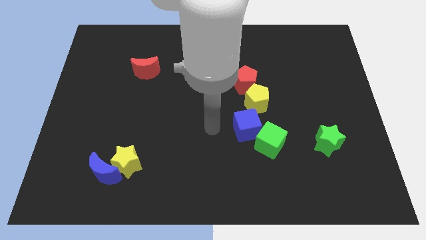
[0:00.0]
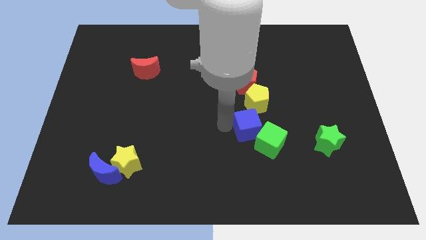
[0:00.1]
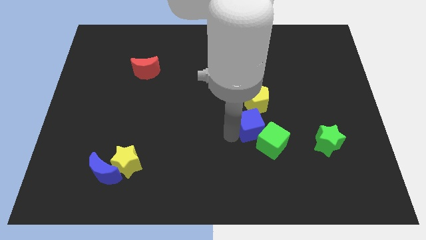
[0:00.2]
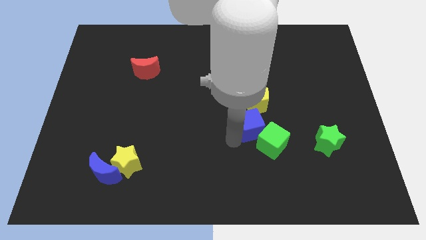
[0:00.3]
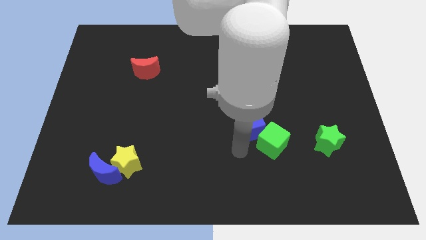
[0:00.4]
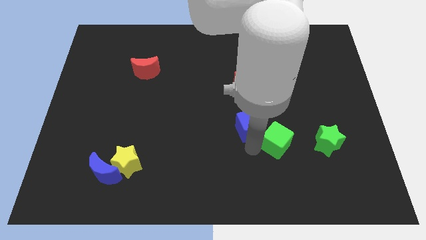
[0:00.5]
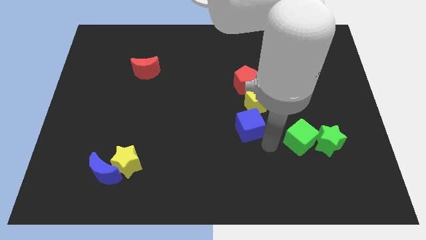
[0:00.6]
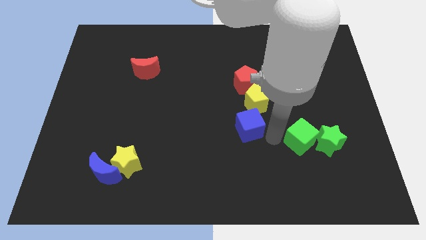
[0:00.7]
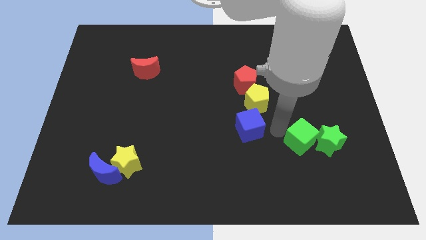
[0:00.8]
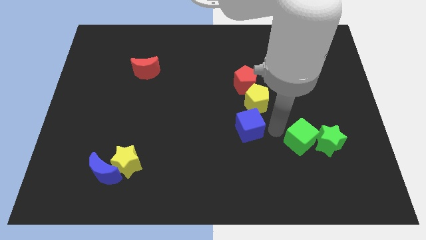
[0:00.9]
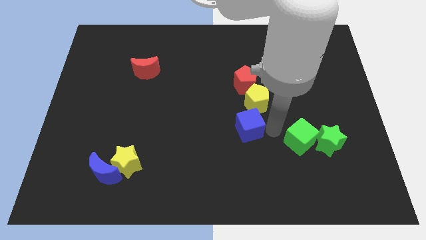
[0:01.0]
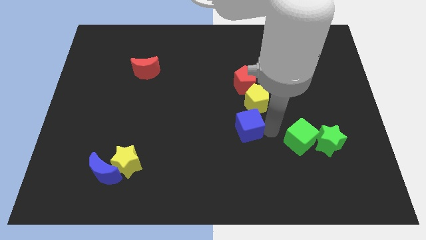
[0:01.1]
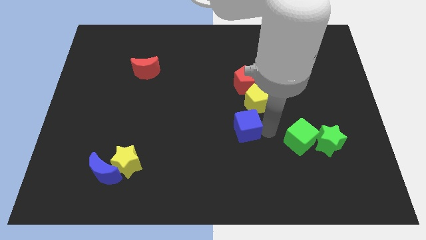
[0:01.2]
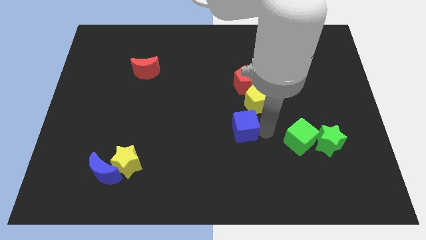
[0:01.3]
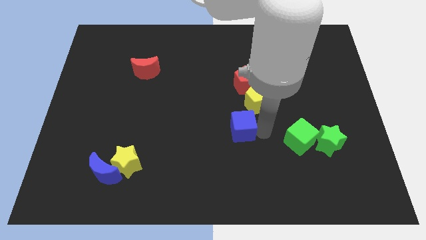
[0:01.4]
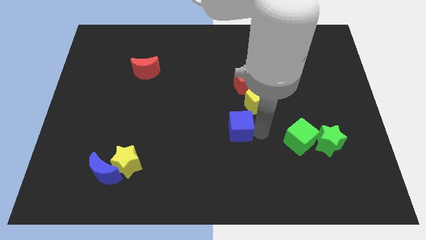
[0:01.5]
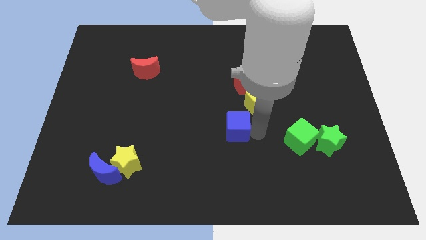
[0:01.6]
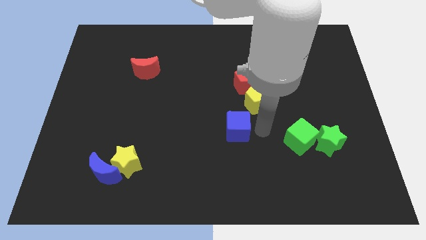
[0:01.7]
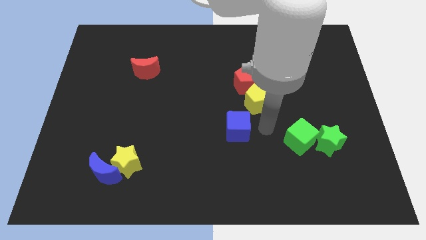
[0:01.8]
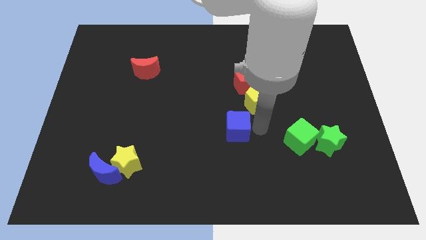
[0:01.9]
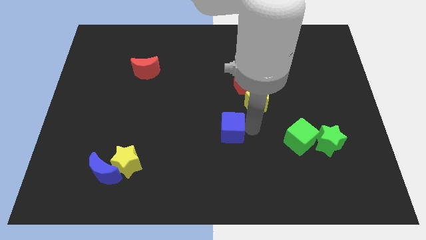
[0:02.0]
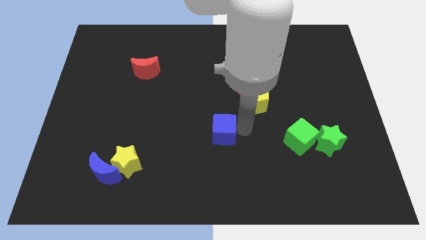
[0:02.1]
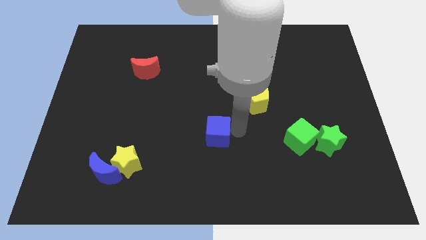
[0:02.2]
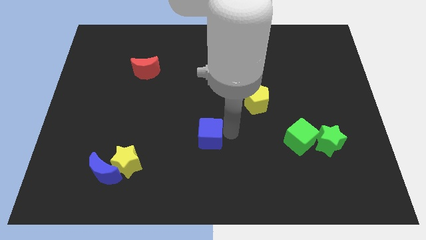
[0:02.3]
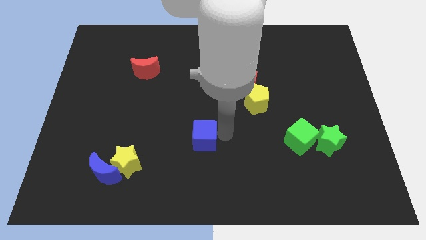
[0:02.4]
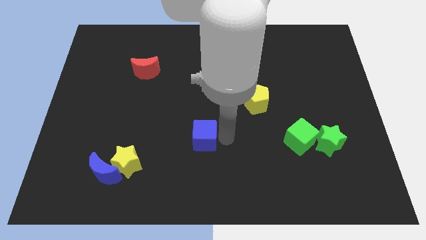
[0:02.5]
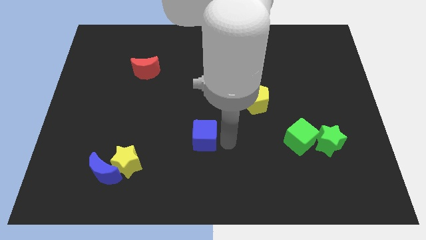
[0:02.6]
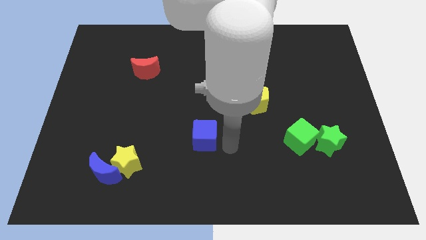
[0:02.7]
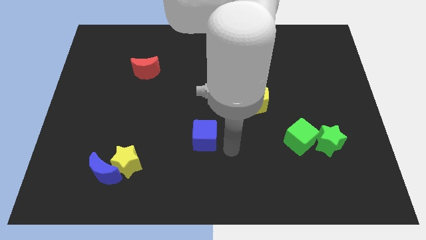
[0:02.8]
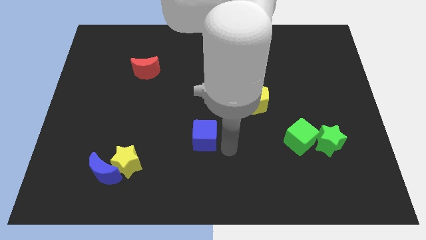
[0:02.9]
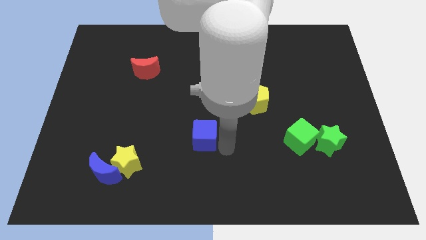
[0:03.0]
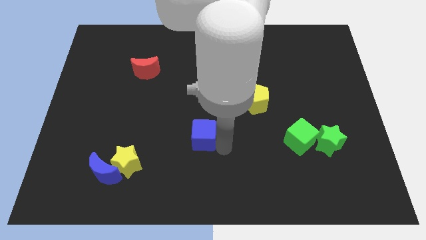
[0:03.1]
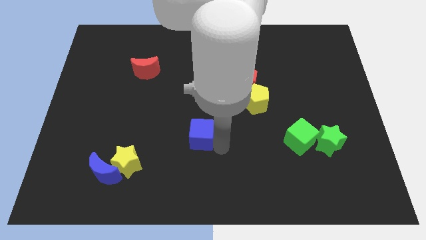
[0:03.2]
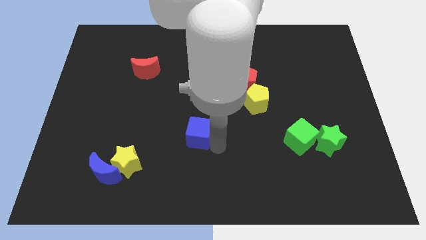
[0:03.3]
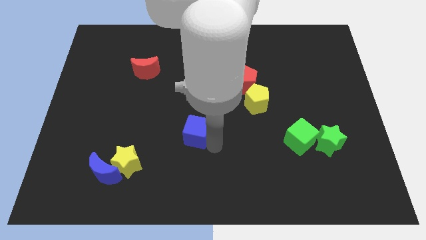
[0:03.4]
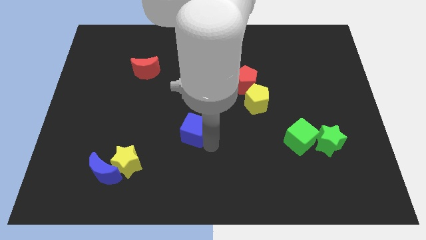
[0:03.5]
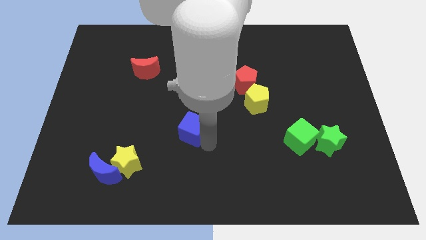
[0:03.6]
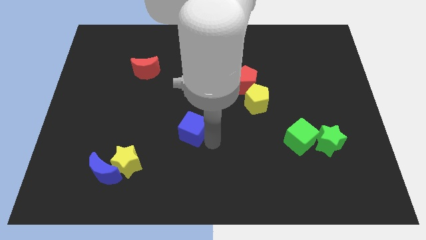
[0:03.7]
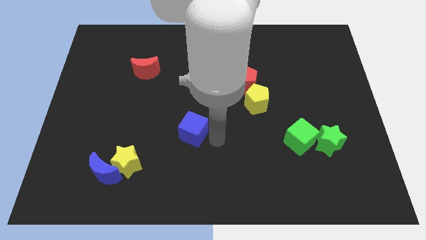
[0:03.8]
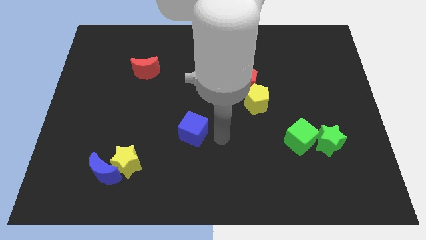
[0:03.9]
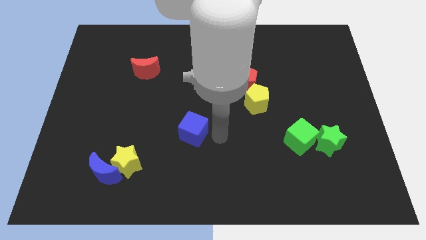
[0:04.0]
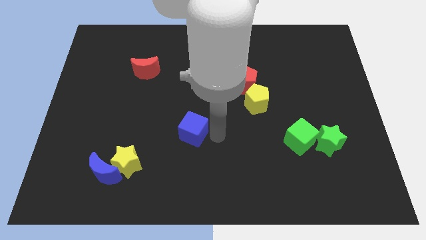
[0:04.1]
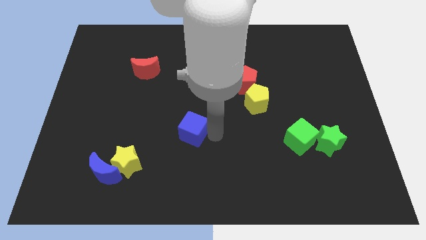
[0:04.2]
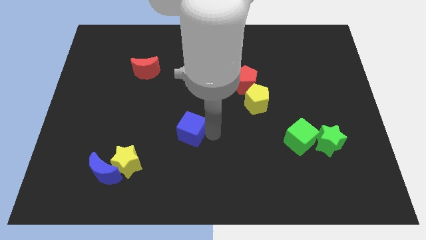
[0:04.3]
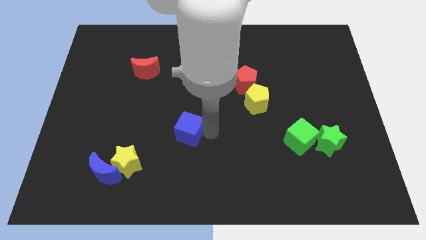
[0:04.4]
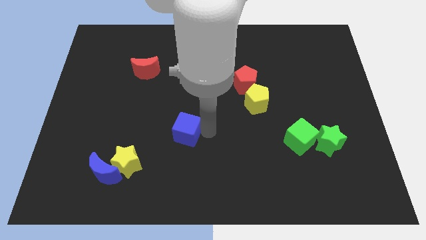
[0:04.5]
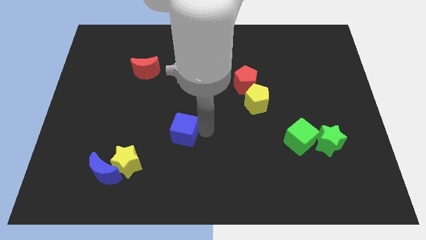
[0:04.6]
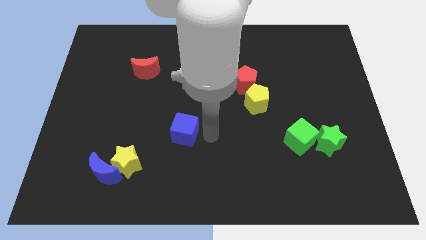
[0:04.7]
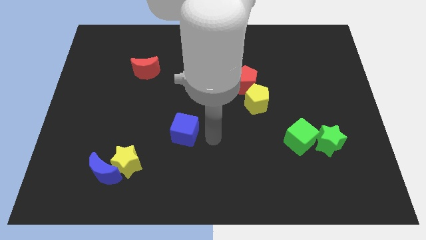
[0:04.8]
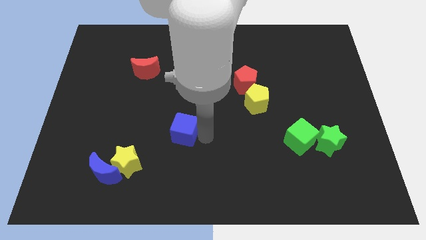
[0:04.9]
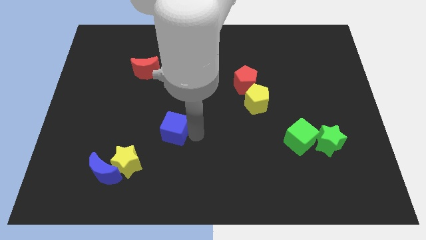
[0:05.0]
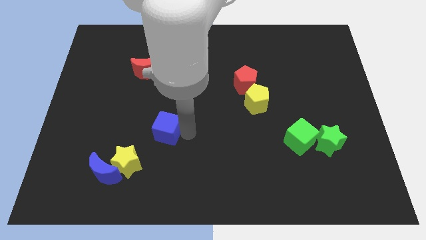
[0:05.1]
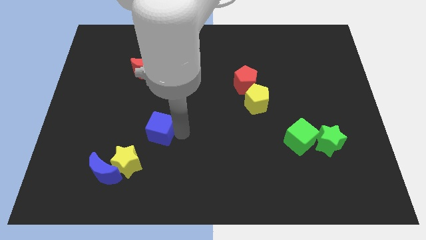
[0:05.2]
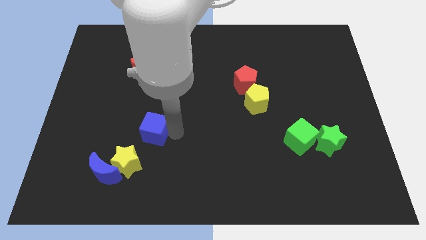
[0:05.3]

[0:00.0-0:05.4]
move the blue cube to the left

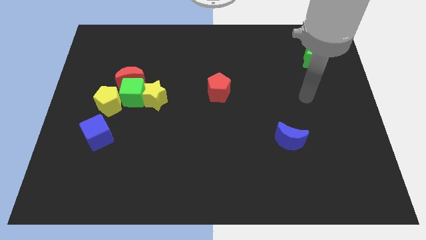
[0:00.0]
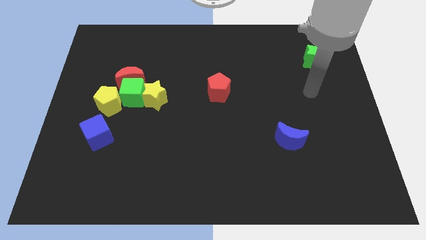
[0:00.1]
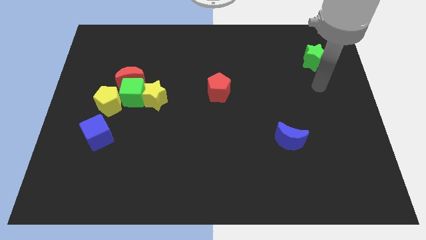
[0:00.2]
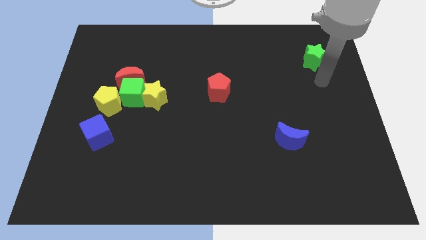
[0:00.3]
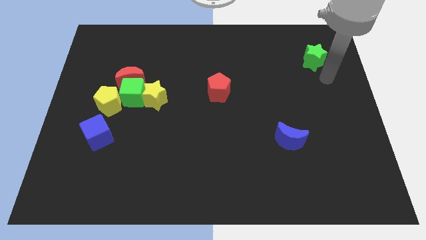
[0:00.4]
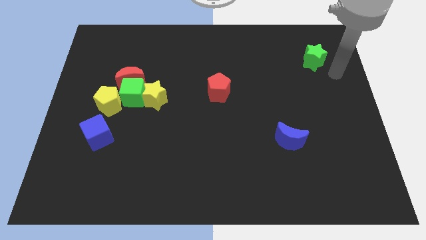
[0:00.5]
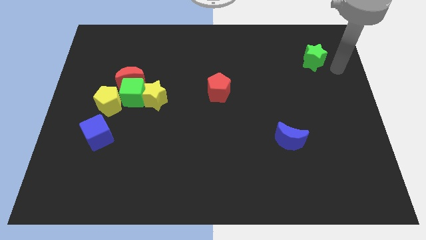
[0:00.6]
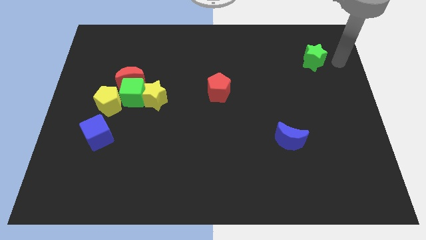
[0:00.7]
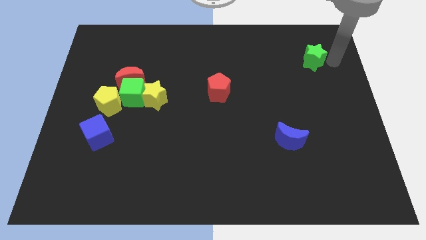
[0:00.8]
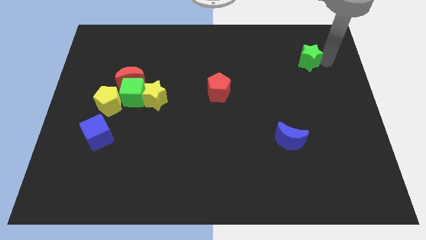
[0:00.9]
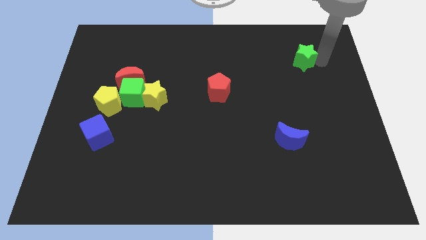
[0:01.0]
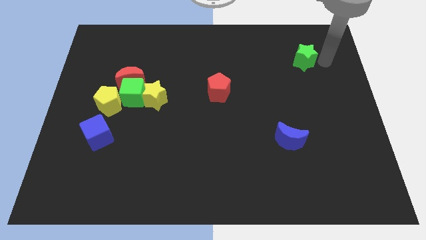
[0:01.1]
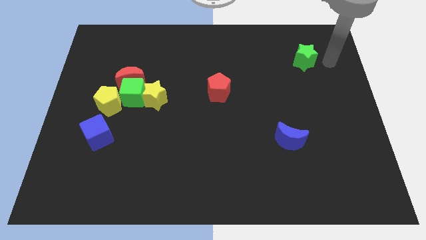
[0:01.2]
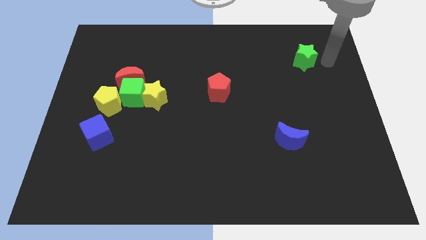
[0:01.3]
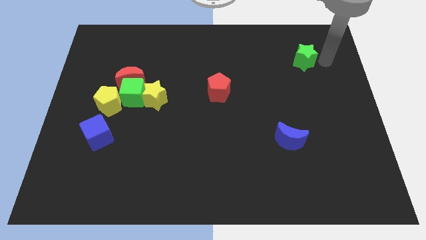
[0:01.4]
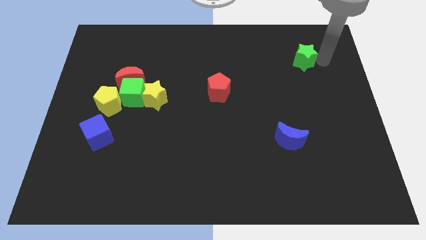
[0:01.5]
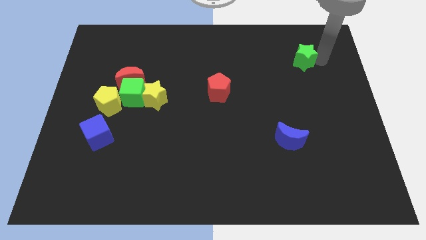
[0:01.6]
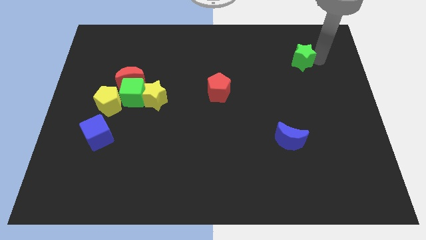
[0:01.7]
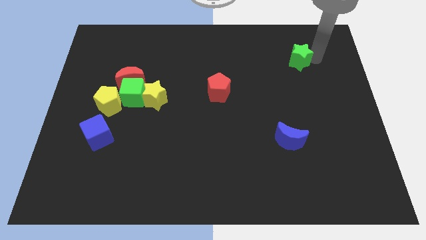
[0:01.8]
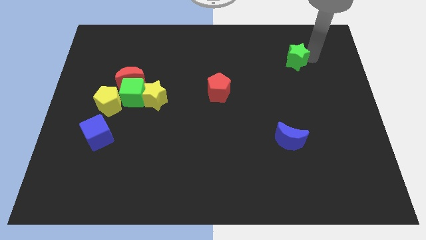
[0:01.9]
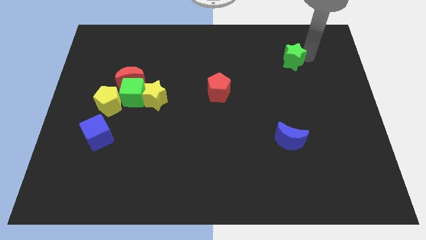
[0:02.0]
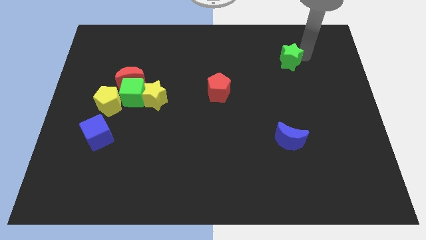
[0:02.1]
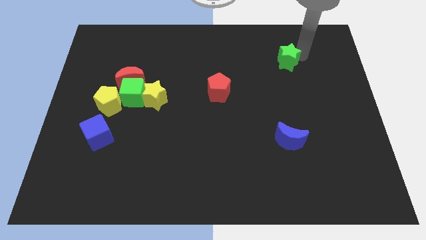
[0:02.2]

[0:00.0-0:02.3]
move the green star left a little bit
